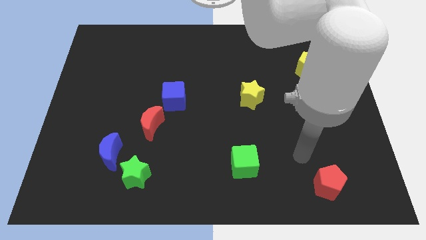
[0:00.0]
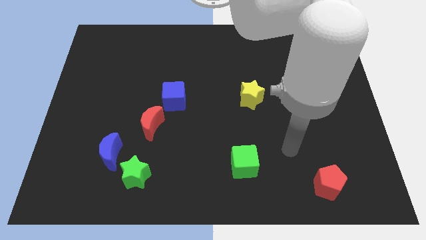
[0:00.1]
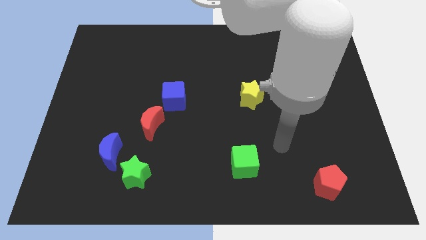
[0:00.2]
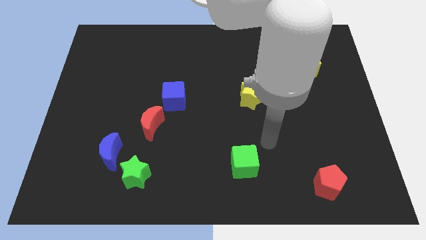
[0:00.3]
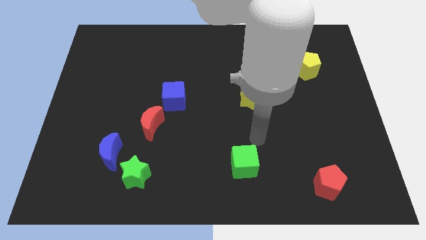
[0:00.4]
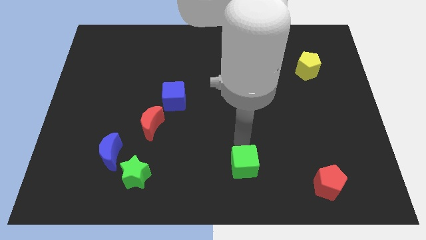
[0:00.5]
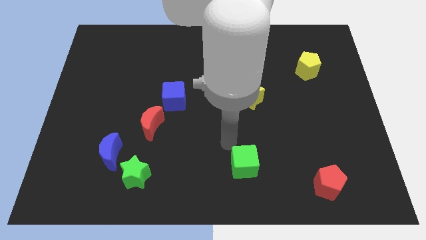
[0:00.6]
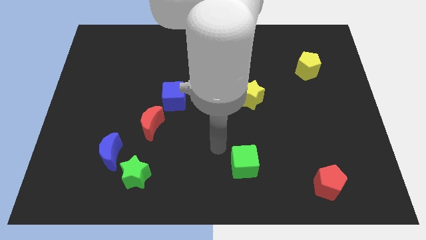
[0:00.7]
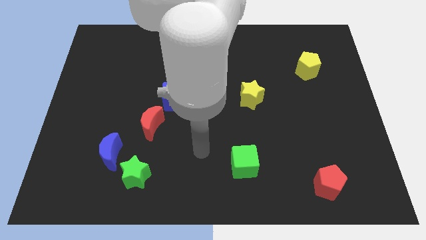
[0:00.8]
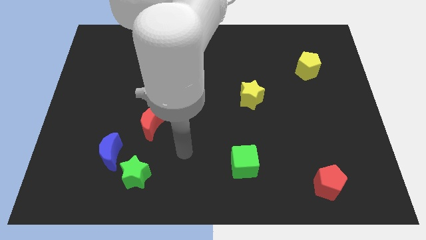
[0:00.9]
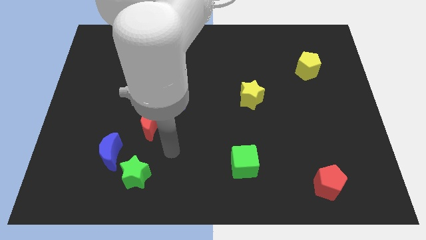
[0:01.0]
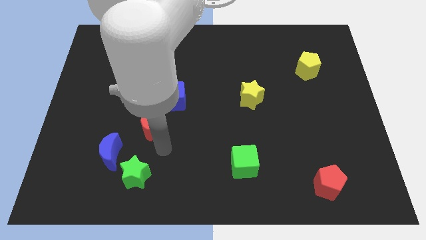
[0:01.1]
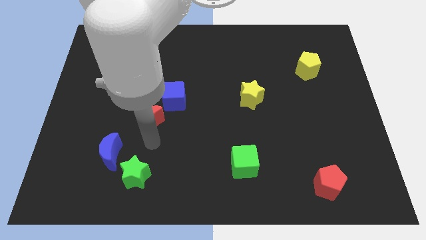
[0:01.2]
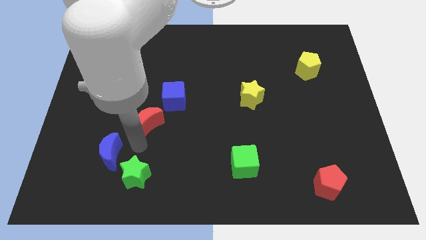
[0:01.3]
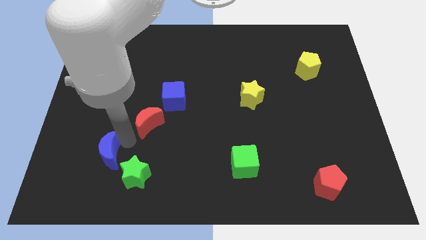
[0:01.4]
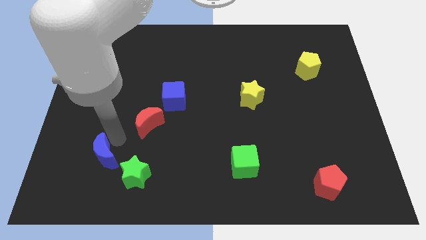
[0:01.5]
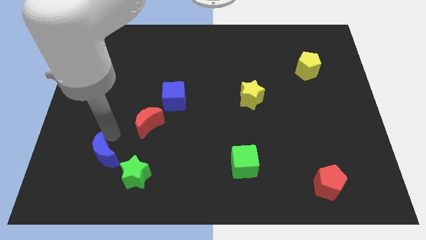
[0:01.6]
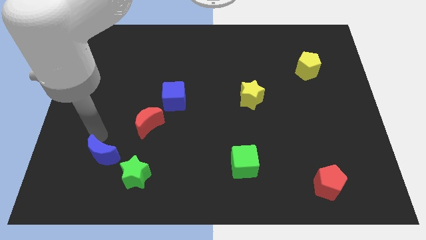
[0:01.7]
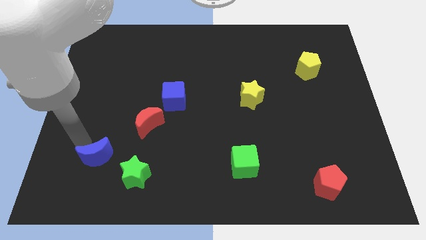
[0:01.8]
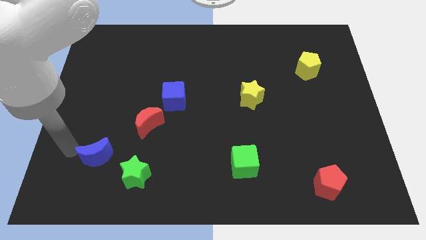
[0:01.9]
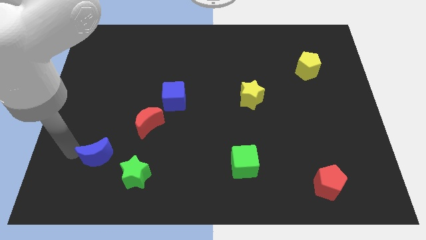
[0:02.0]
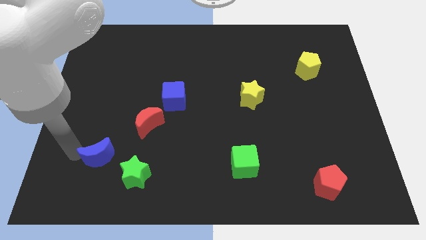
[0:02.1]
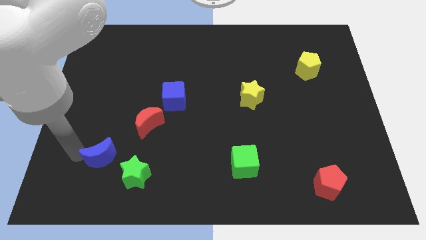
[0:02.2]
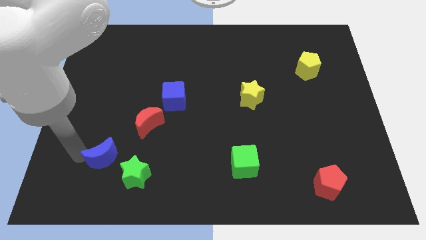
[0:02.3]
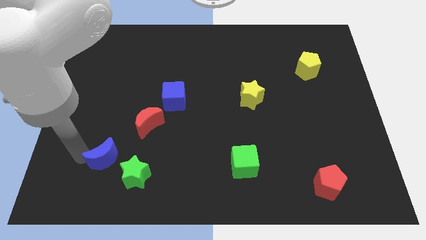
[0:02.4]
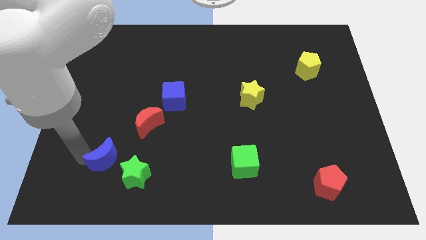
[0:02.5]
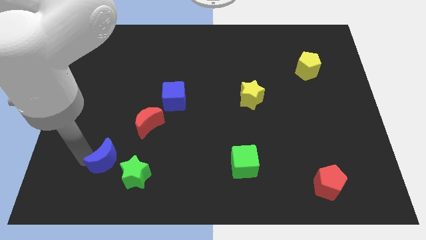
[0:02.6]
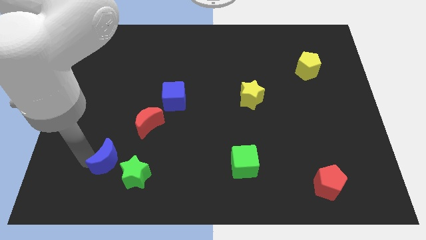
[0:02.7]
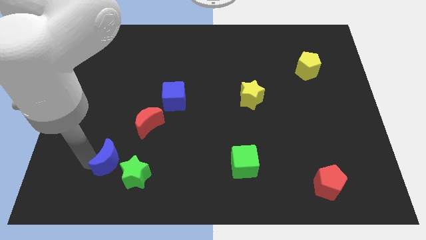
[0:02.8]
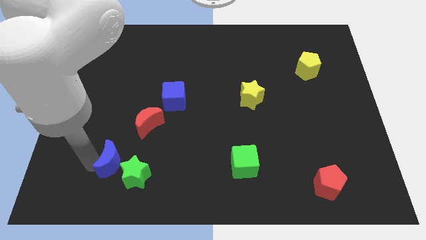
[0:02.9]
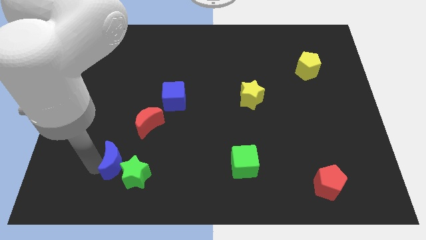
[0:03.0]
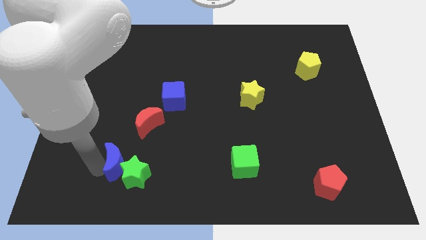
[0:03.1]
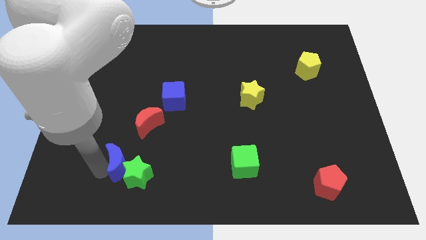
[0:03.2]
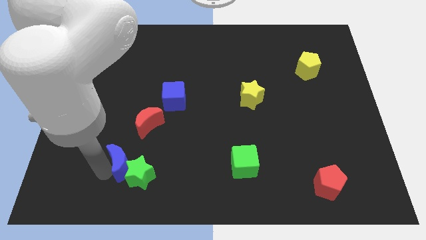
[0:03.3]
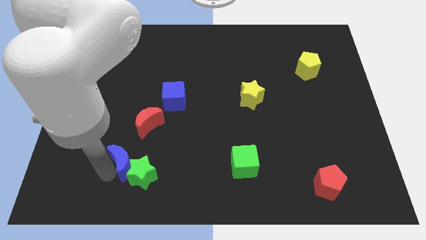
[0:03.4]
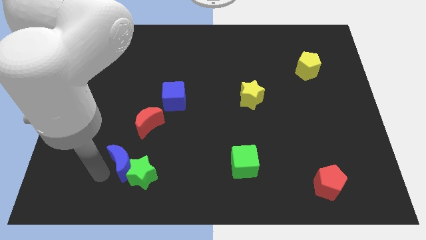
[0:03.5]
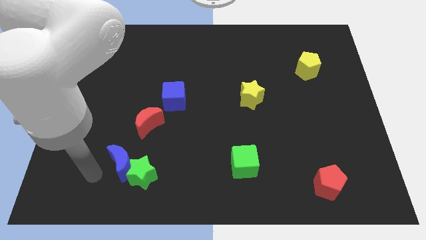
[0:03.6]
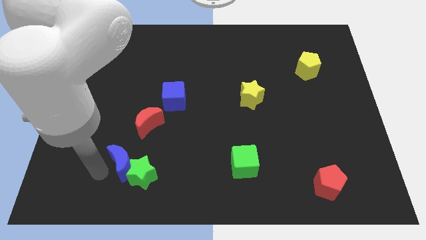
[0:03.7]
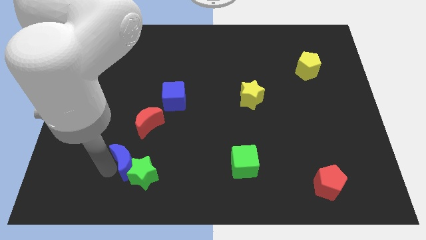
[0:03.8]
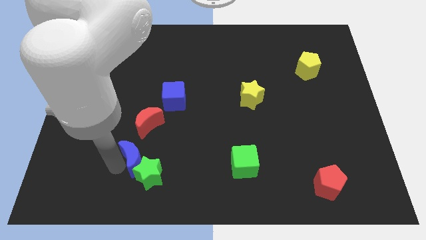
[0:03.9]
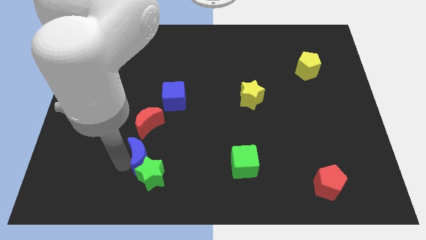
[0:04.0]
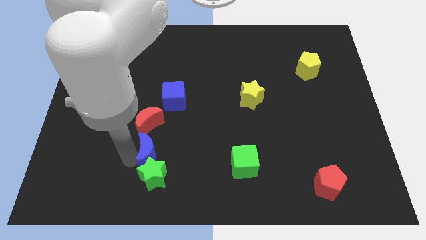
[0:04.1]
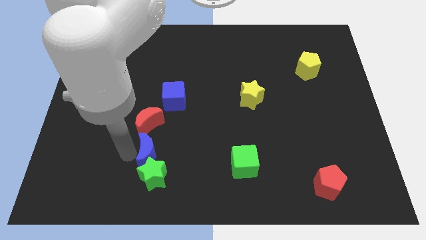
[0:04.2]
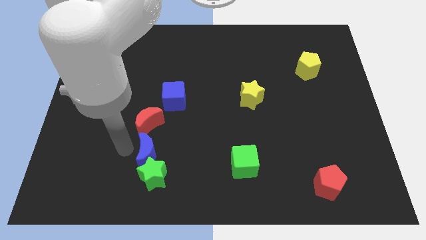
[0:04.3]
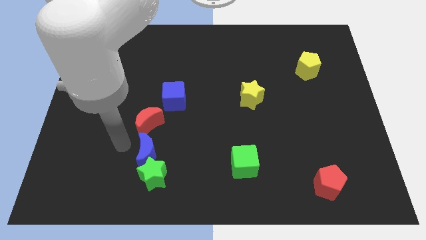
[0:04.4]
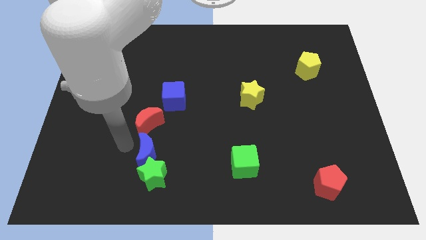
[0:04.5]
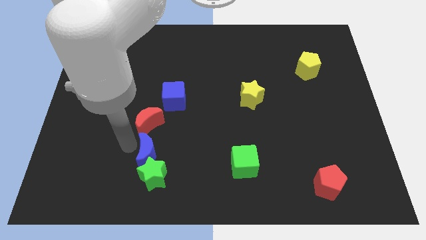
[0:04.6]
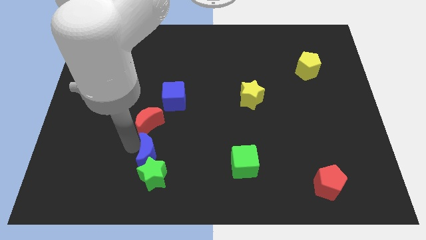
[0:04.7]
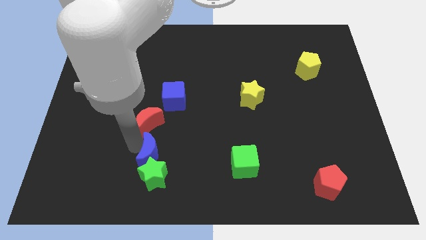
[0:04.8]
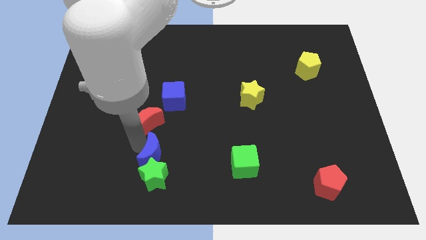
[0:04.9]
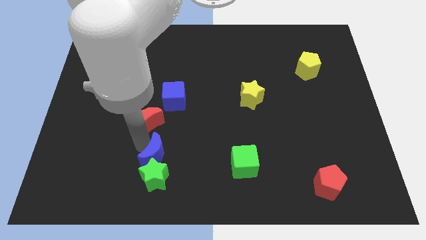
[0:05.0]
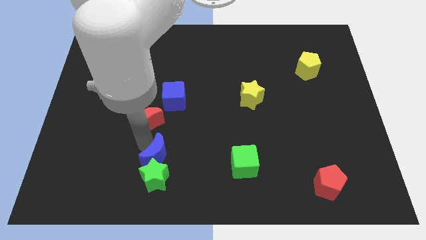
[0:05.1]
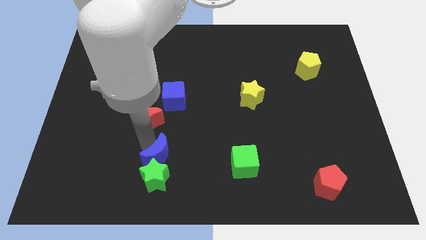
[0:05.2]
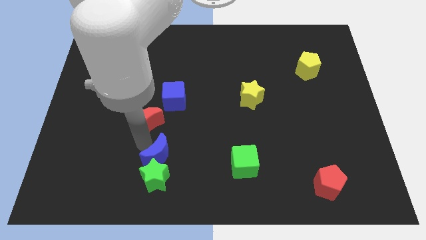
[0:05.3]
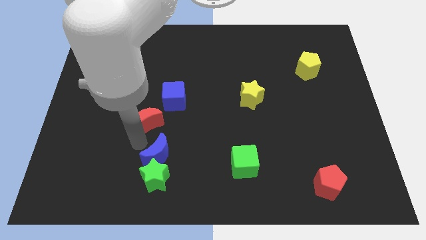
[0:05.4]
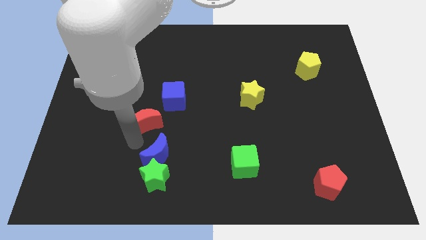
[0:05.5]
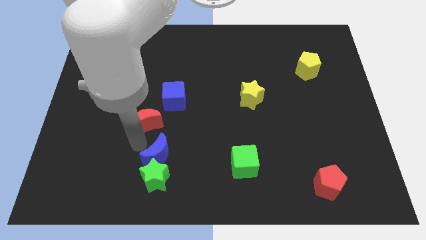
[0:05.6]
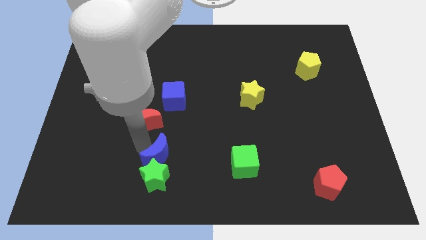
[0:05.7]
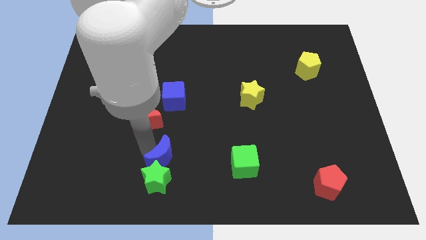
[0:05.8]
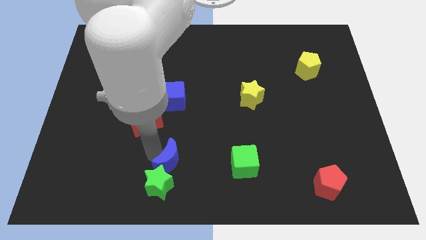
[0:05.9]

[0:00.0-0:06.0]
move the blue moon to the left of the green cube

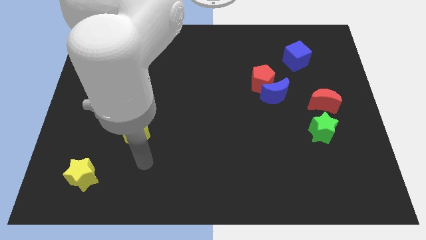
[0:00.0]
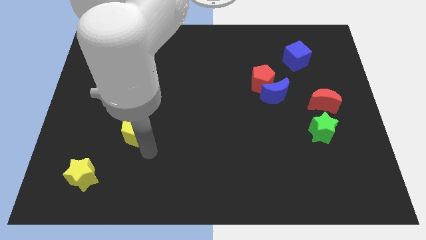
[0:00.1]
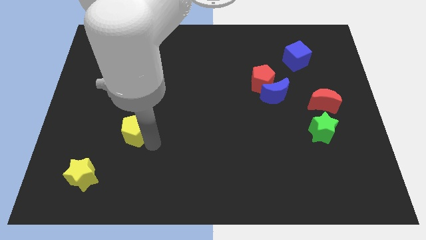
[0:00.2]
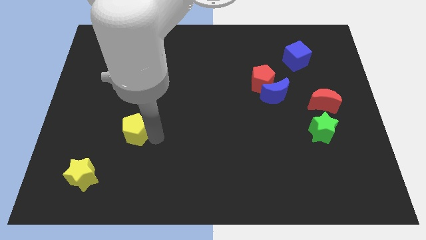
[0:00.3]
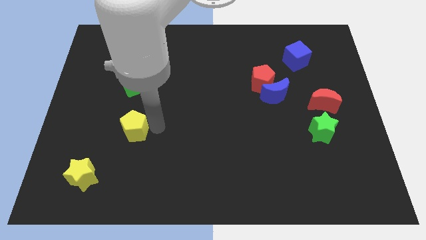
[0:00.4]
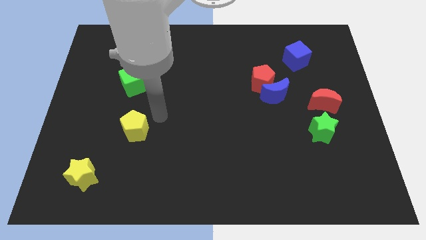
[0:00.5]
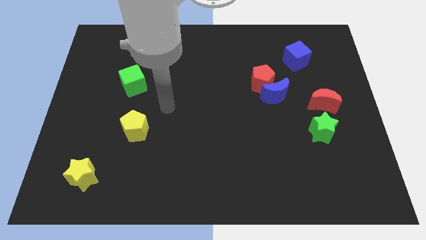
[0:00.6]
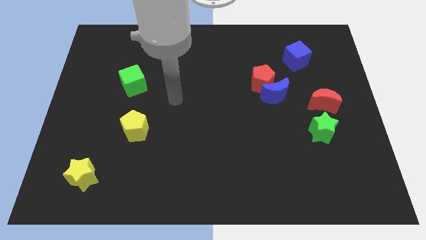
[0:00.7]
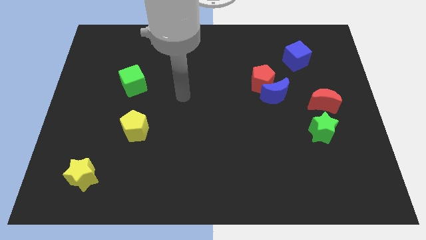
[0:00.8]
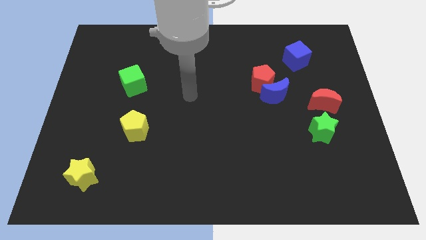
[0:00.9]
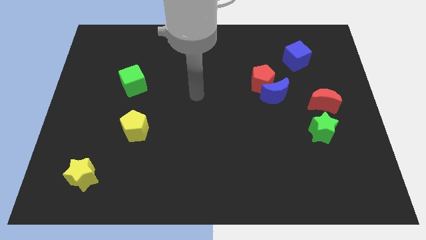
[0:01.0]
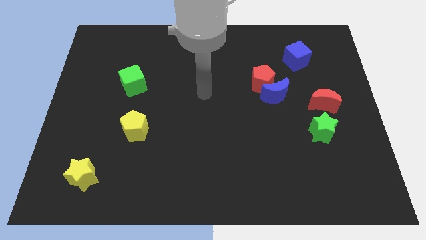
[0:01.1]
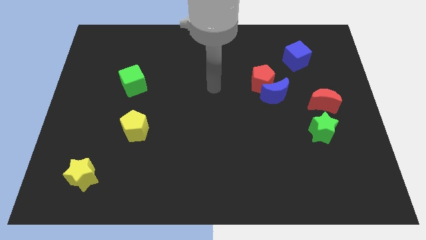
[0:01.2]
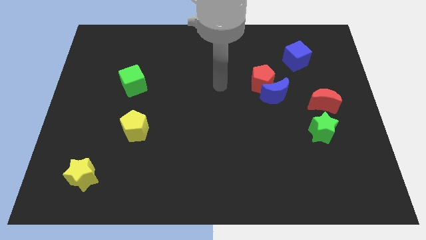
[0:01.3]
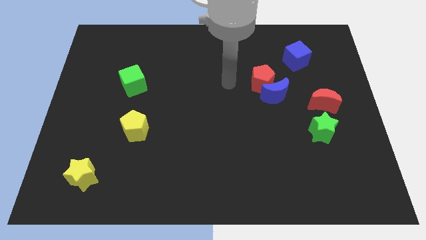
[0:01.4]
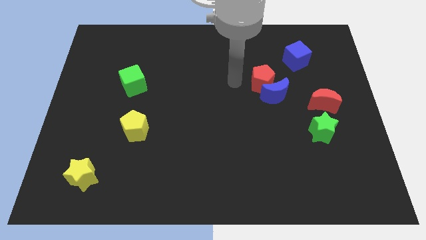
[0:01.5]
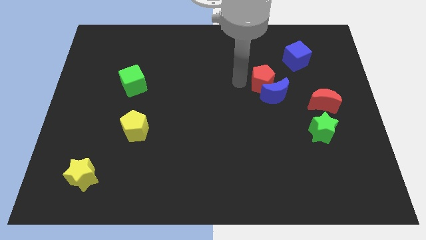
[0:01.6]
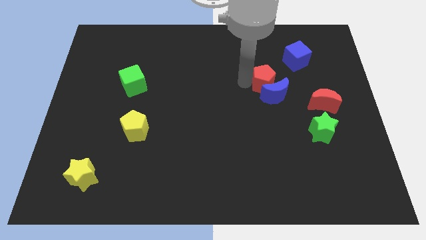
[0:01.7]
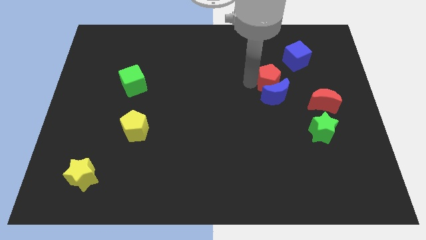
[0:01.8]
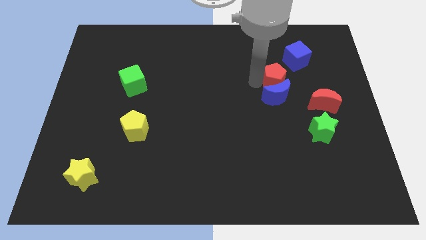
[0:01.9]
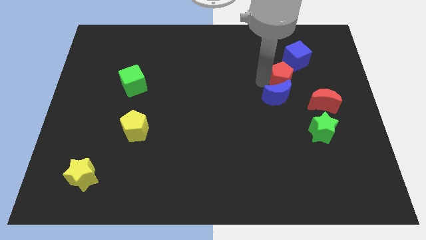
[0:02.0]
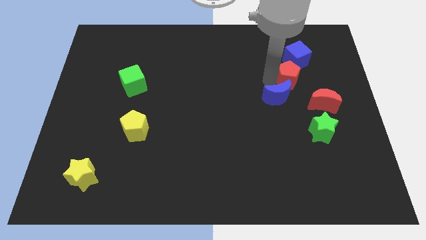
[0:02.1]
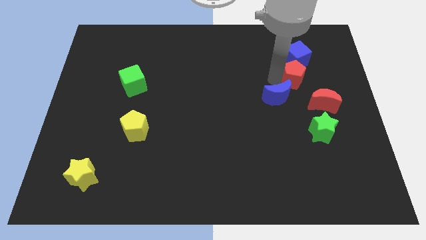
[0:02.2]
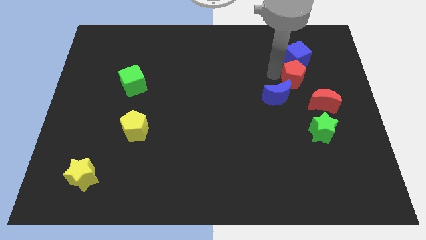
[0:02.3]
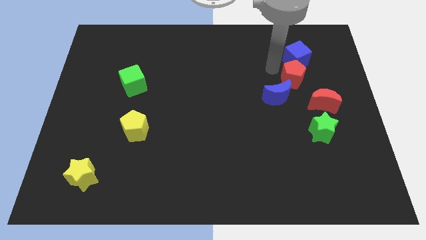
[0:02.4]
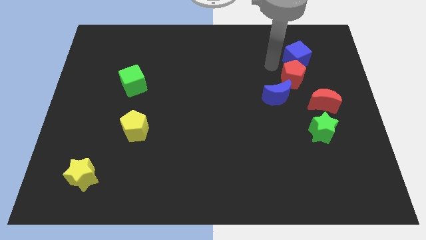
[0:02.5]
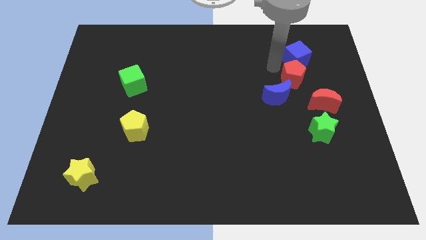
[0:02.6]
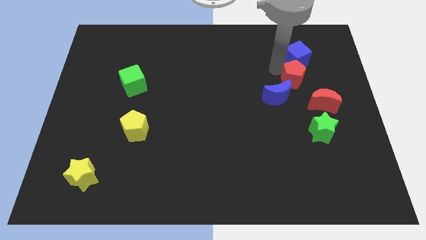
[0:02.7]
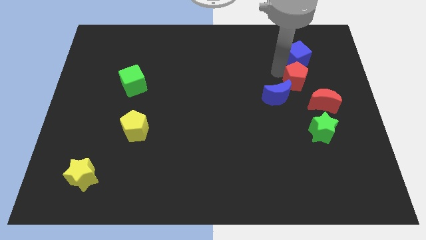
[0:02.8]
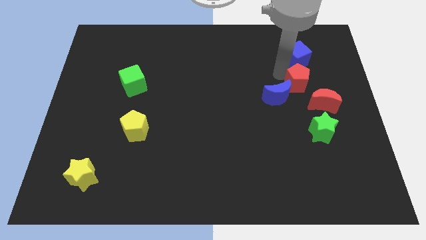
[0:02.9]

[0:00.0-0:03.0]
move the red pentagon just right of the blue moon
